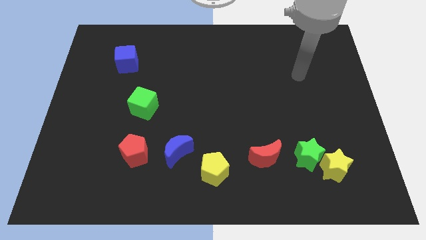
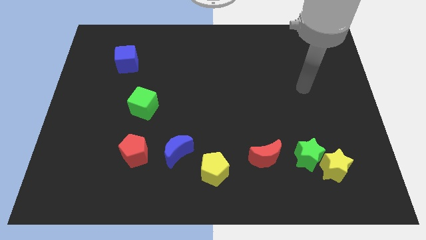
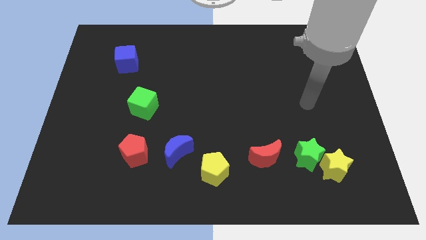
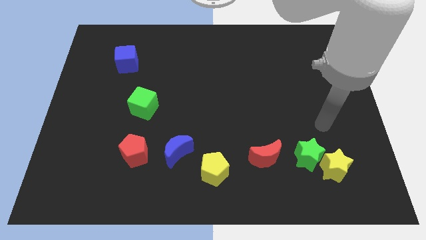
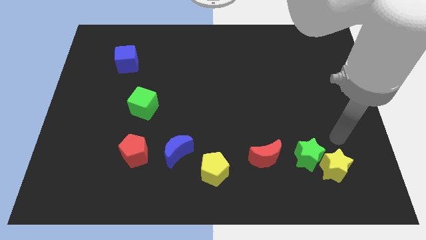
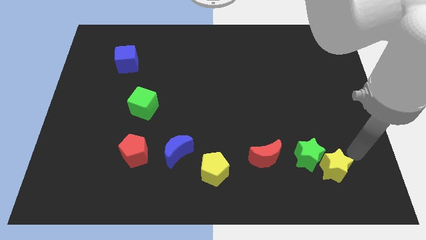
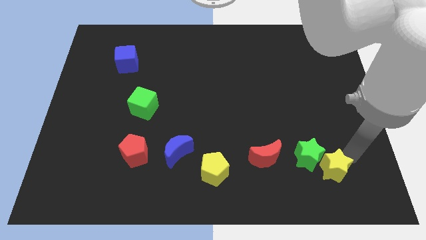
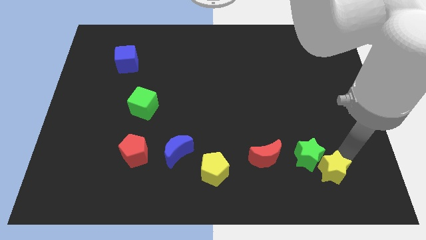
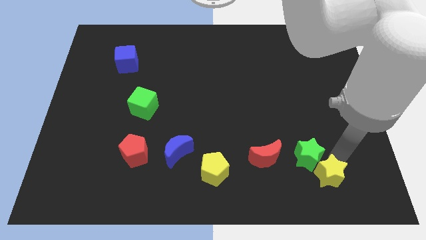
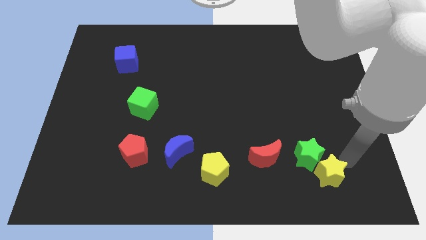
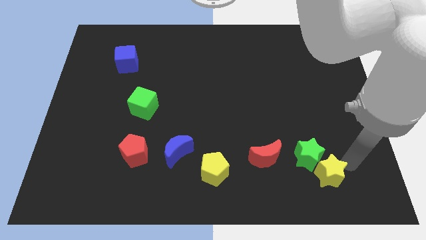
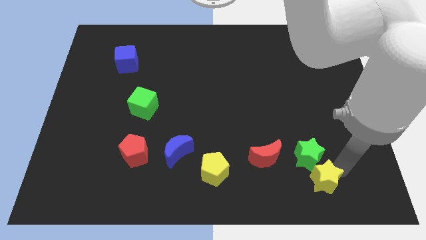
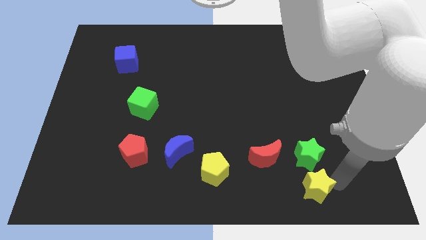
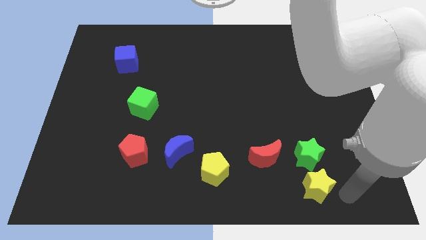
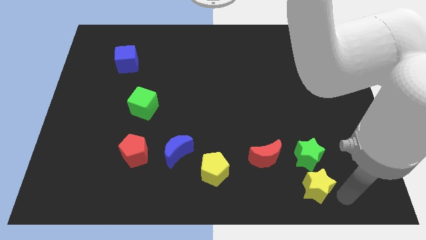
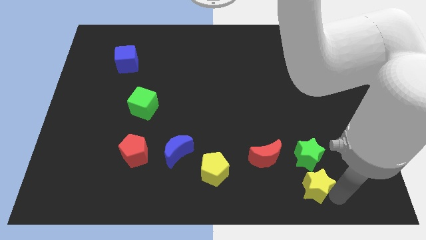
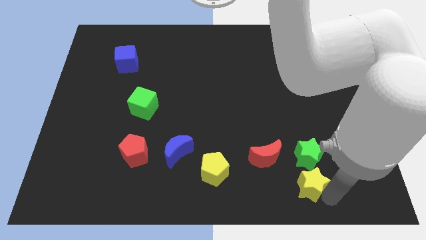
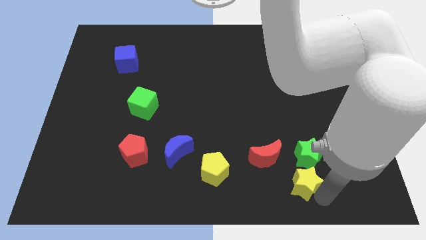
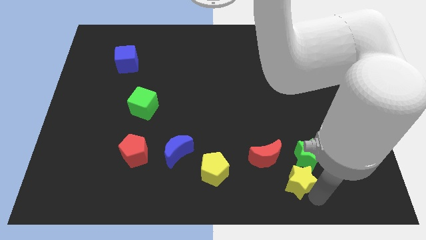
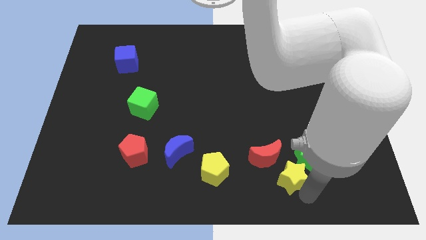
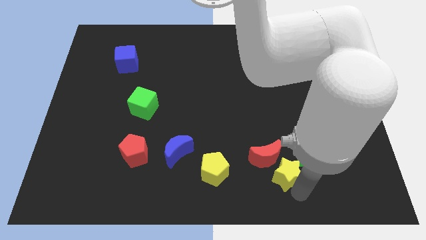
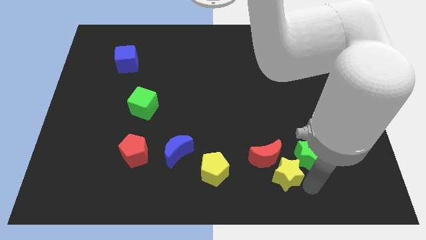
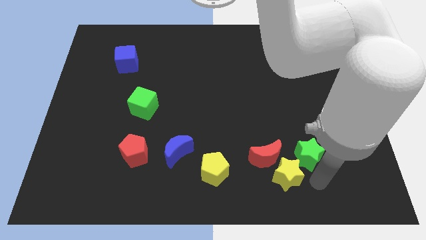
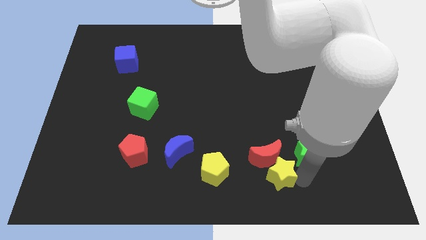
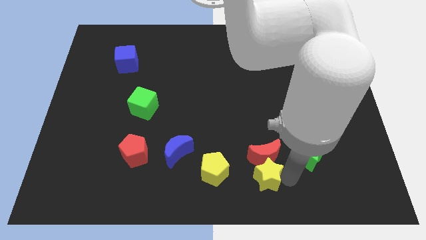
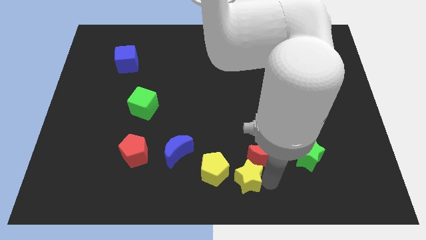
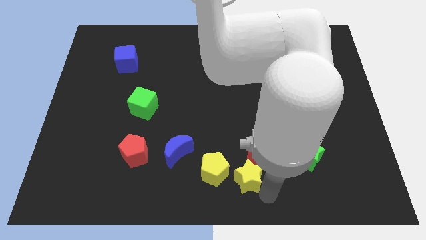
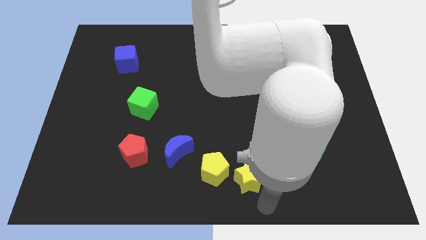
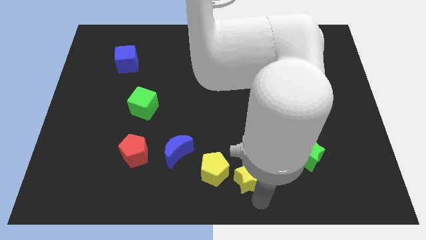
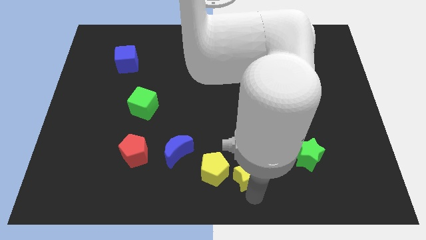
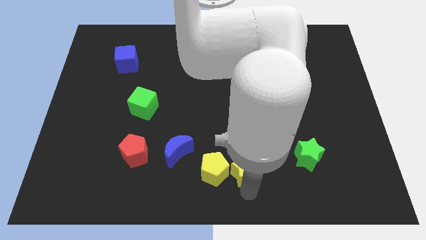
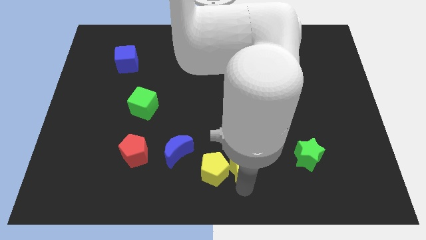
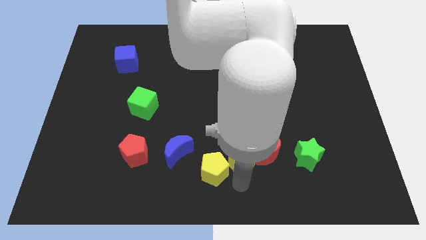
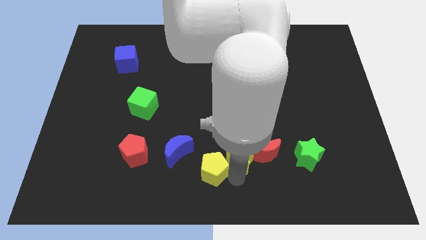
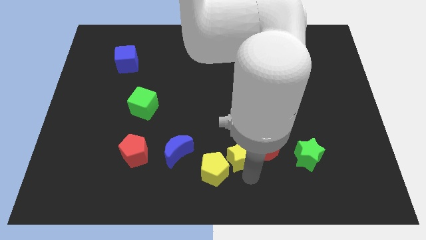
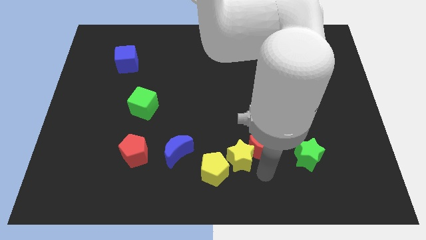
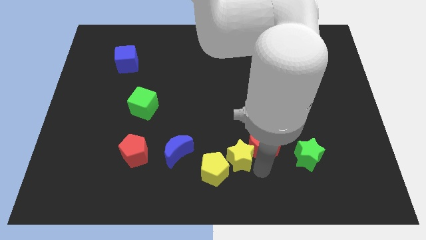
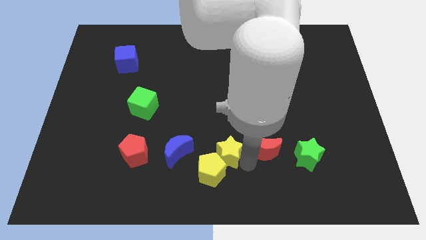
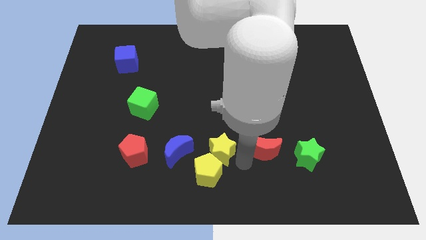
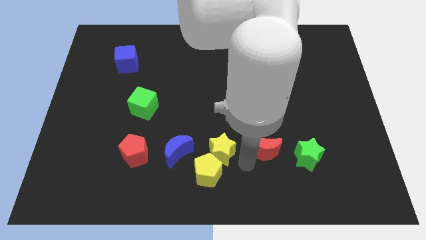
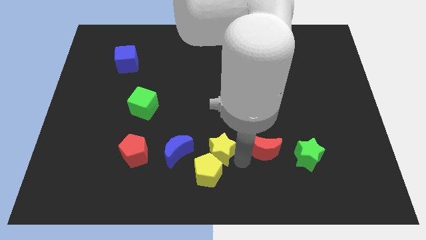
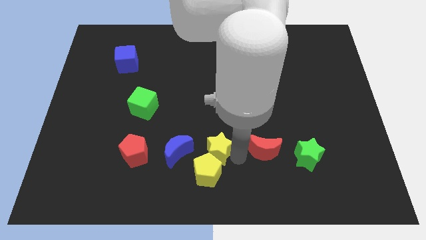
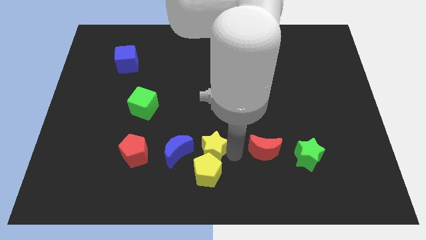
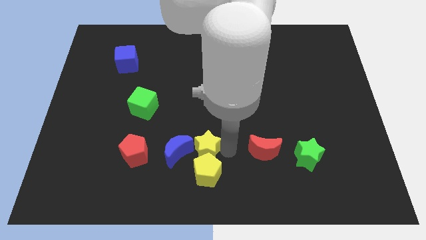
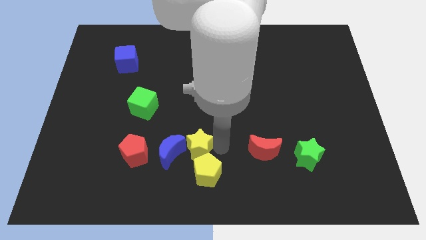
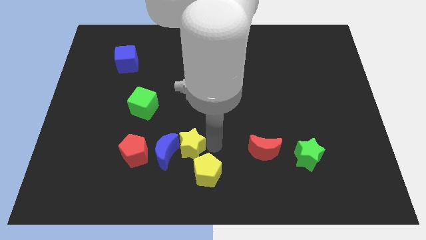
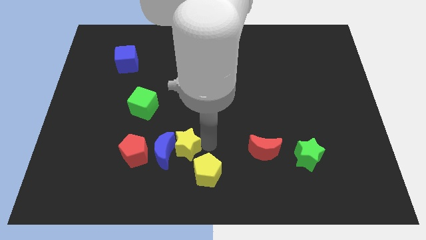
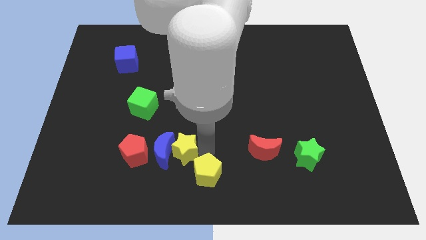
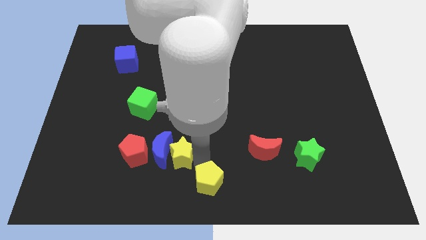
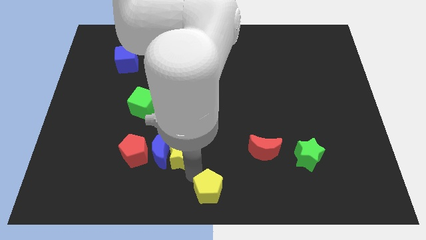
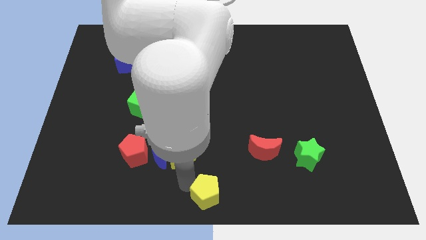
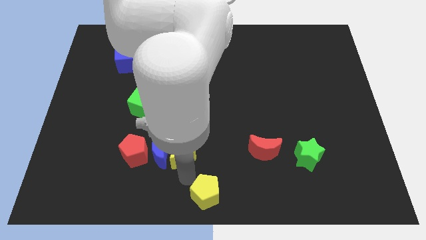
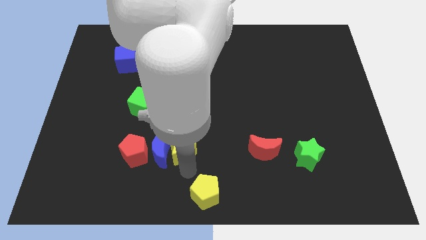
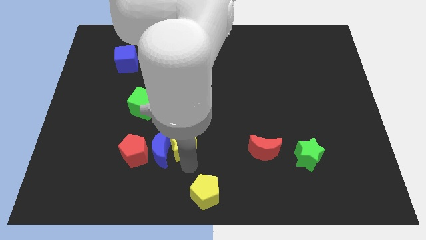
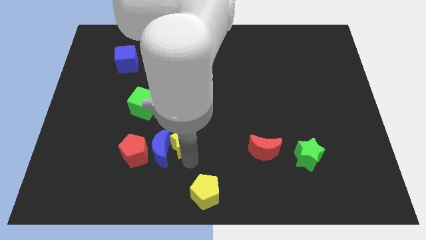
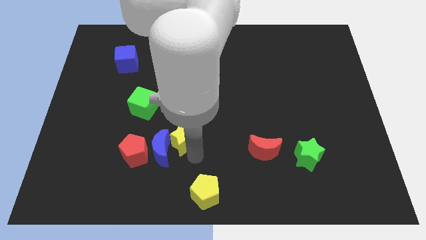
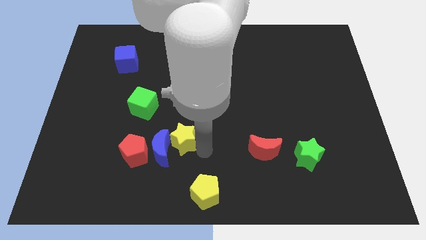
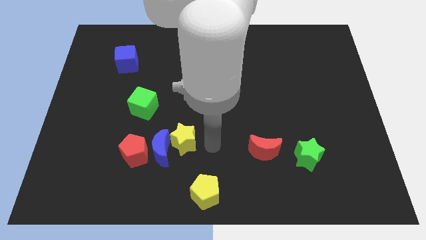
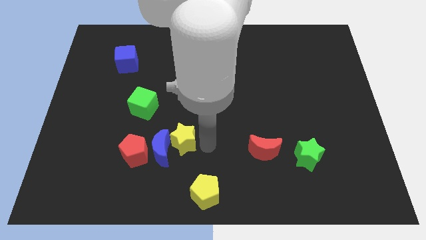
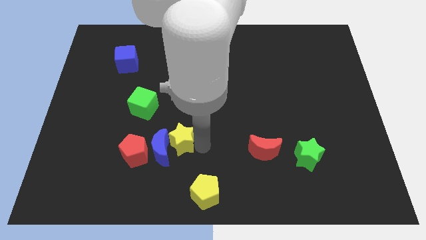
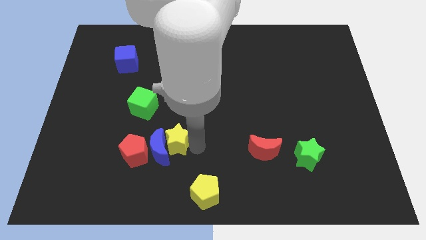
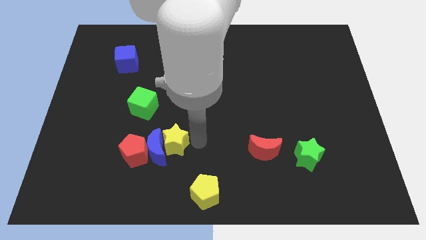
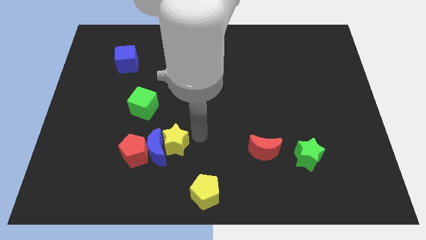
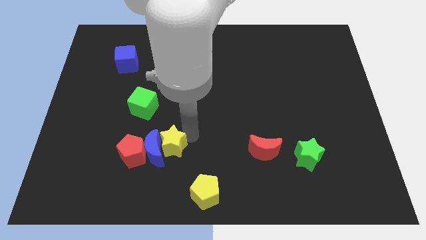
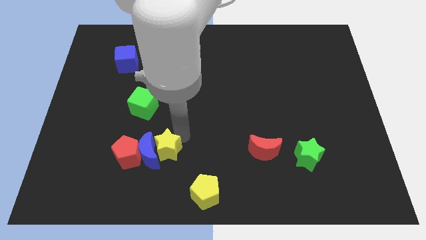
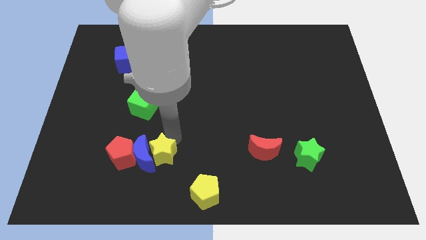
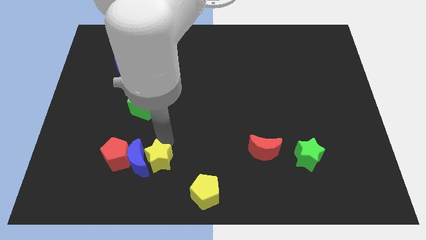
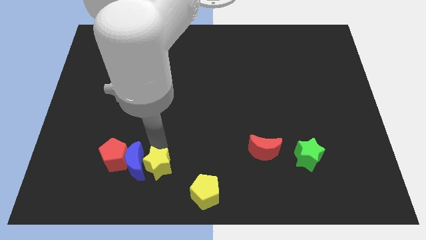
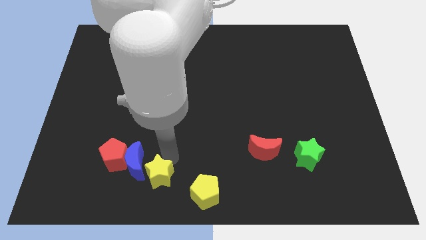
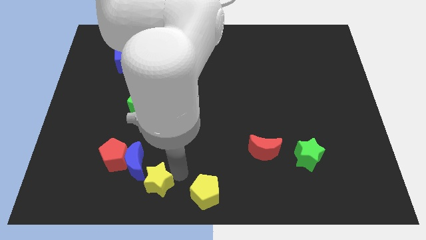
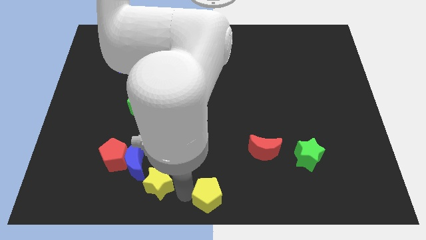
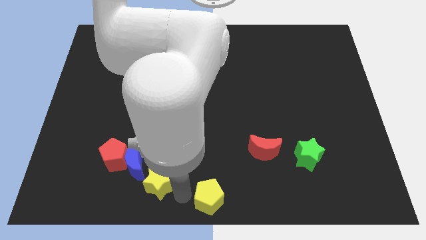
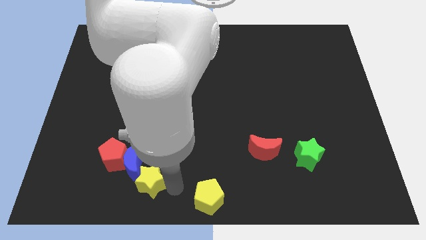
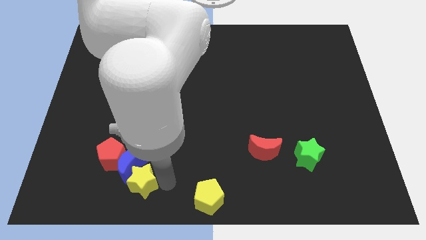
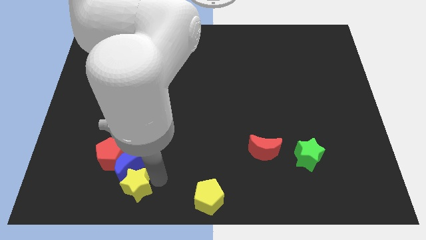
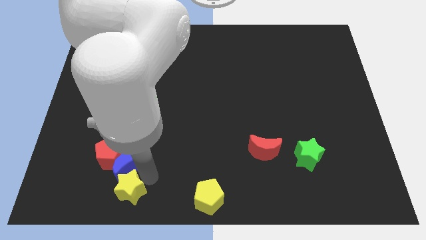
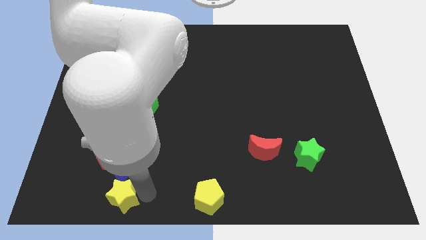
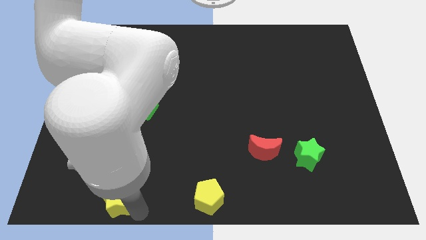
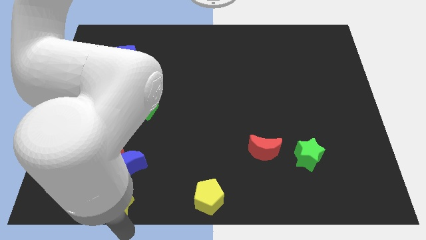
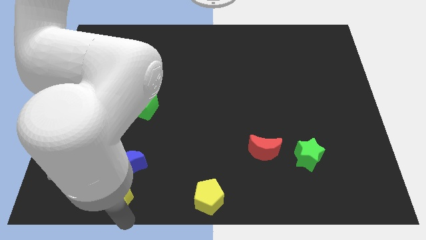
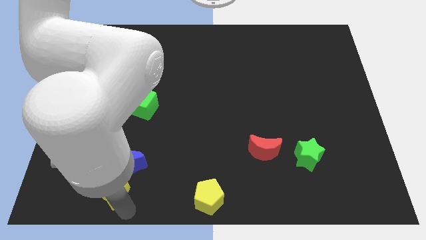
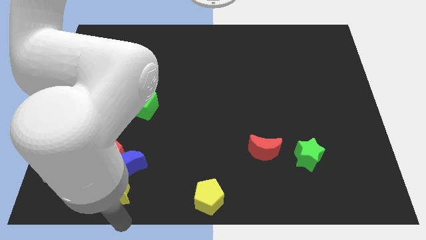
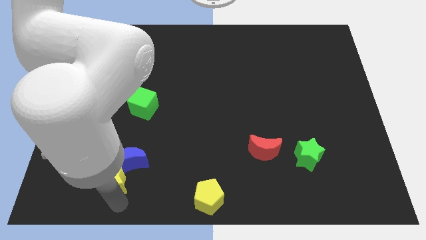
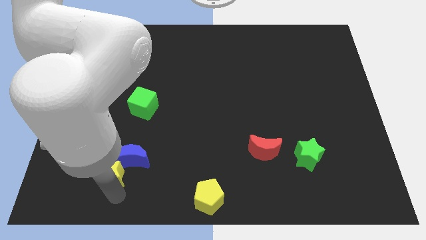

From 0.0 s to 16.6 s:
push the yellow star to the red pentagon
